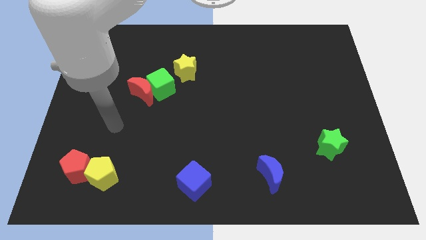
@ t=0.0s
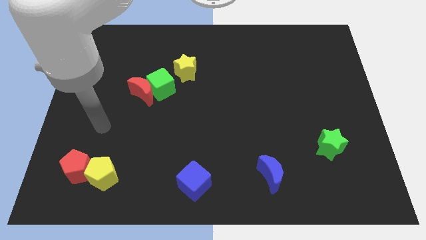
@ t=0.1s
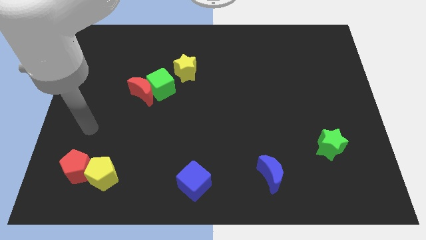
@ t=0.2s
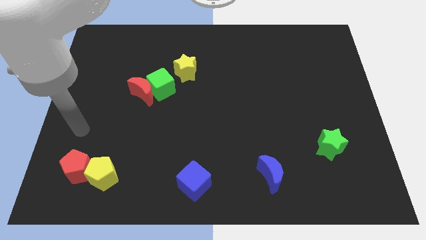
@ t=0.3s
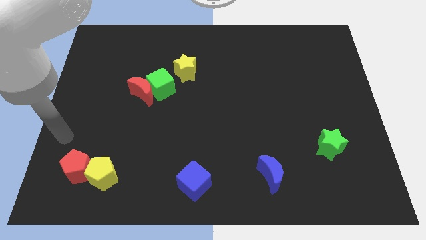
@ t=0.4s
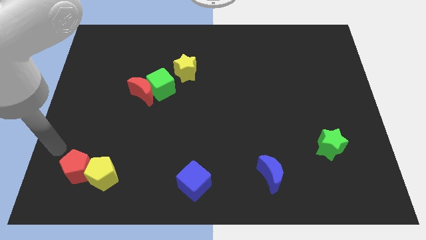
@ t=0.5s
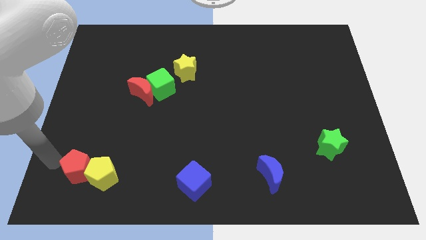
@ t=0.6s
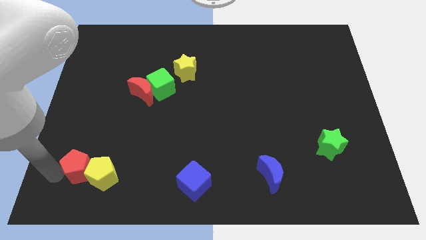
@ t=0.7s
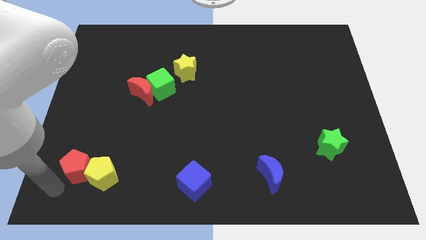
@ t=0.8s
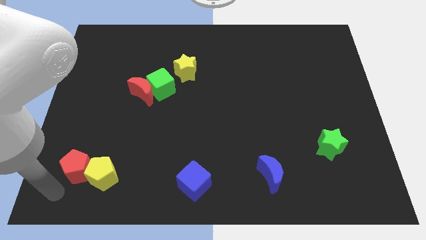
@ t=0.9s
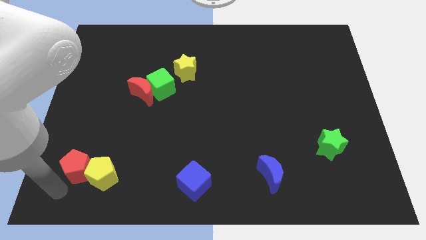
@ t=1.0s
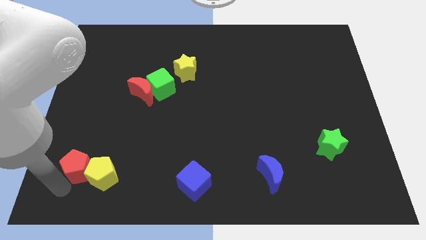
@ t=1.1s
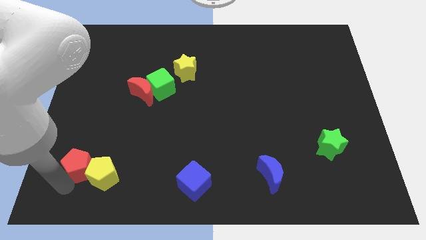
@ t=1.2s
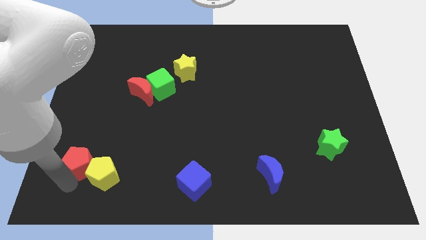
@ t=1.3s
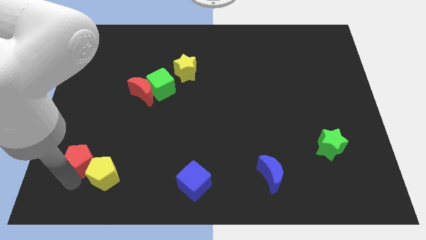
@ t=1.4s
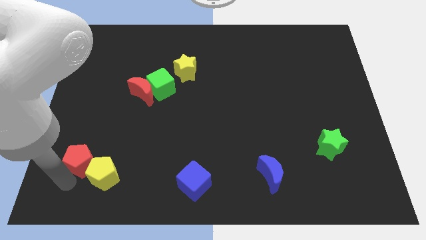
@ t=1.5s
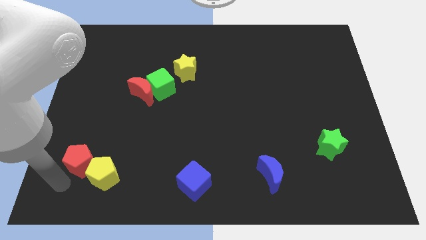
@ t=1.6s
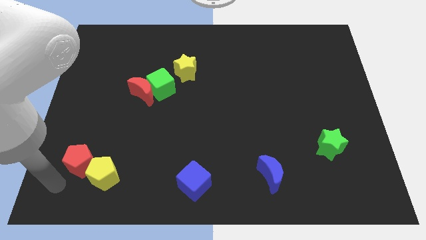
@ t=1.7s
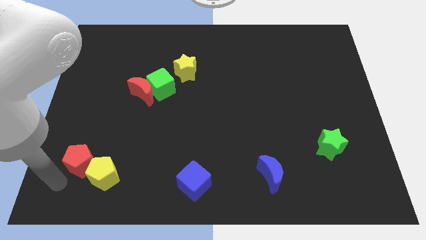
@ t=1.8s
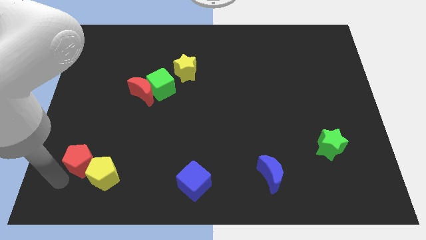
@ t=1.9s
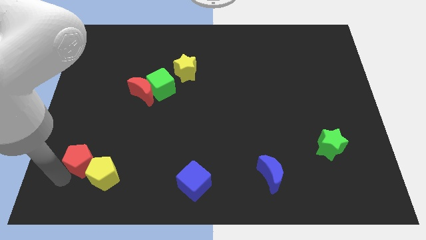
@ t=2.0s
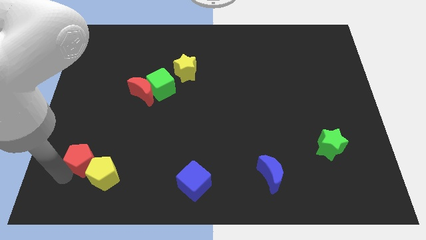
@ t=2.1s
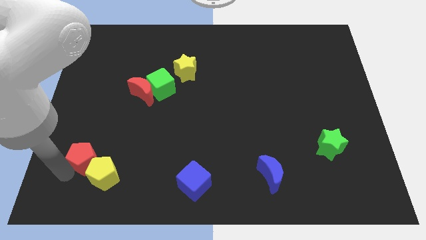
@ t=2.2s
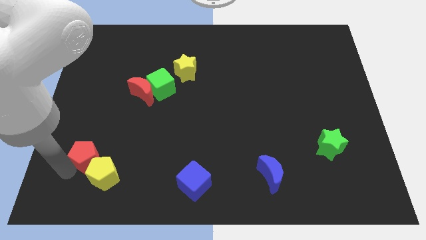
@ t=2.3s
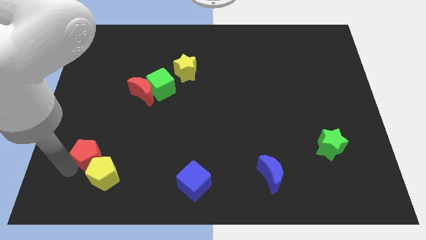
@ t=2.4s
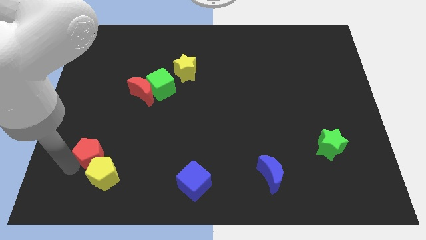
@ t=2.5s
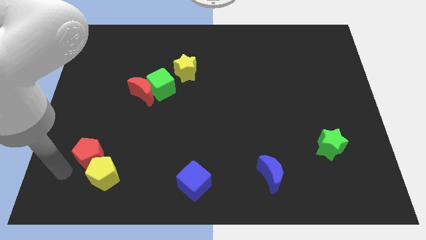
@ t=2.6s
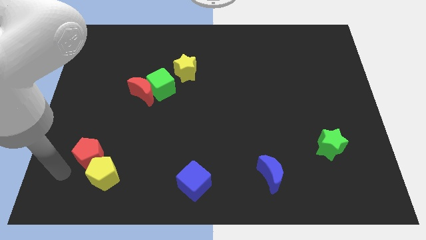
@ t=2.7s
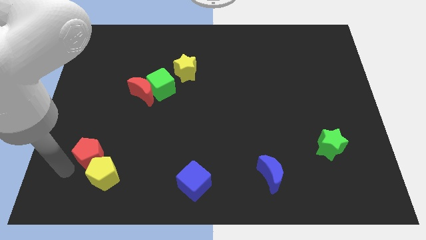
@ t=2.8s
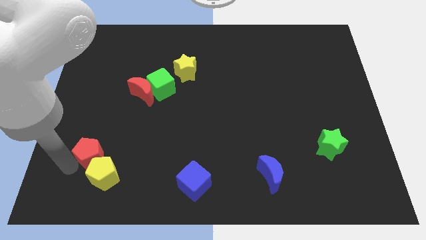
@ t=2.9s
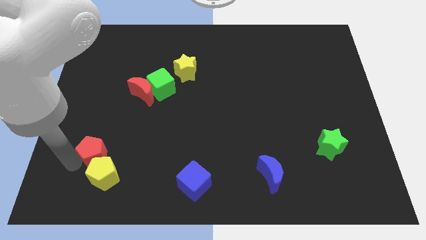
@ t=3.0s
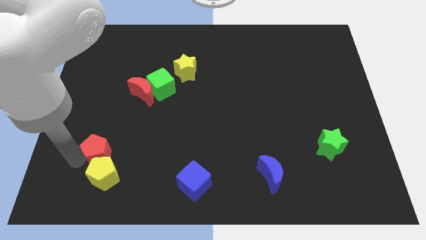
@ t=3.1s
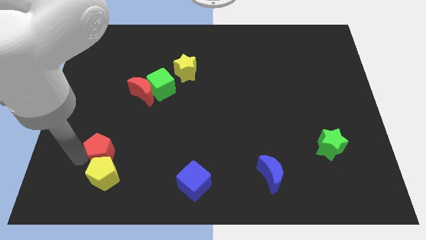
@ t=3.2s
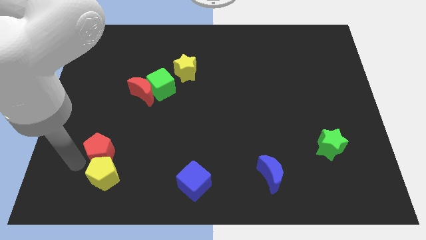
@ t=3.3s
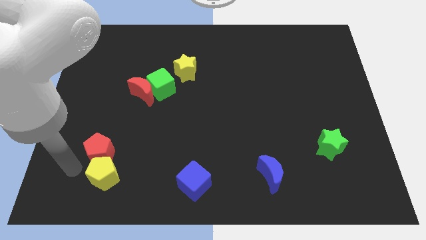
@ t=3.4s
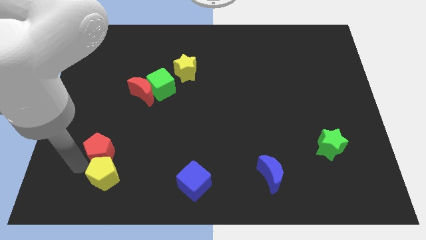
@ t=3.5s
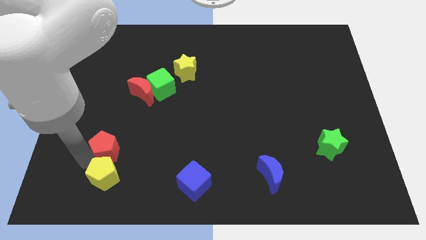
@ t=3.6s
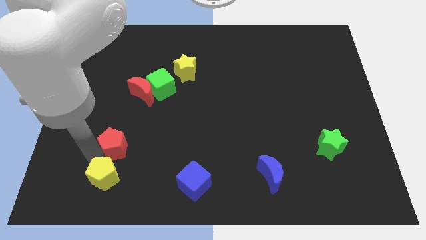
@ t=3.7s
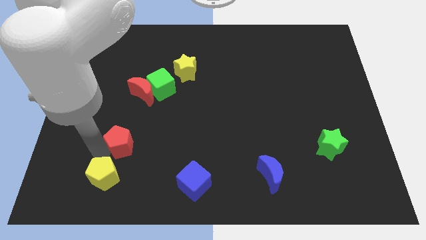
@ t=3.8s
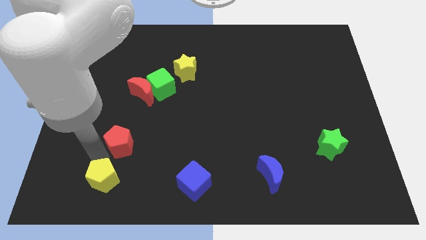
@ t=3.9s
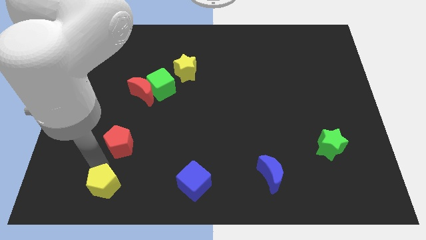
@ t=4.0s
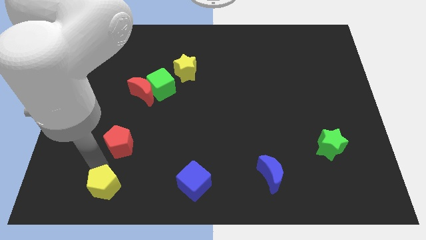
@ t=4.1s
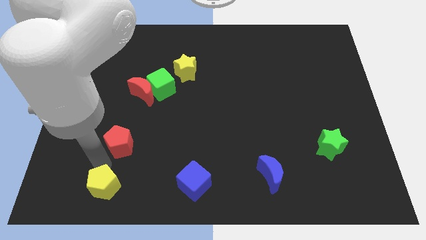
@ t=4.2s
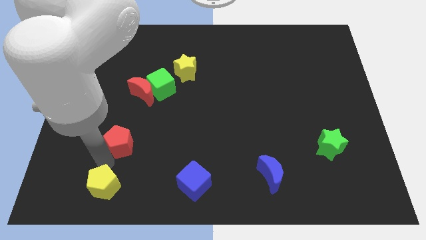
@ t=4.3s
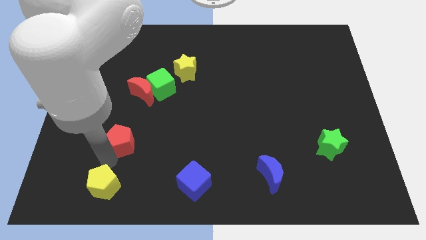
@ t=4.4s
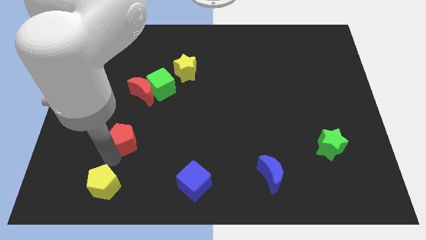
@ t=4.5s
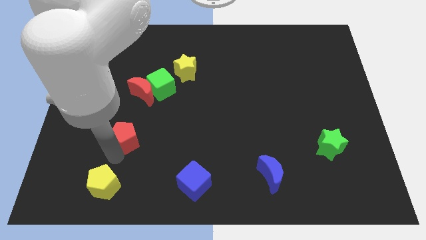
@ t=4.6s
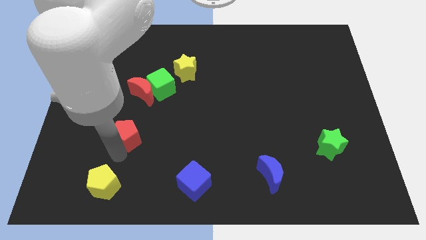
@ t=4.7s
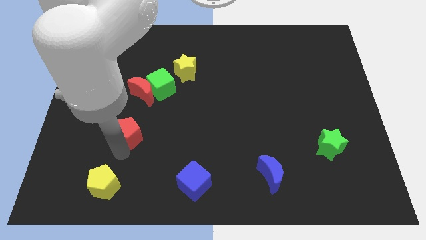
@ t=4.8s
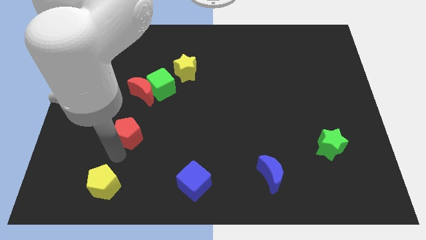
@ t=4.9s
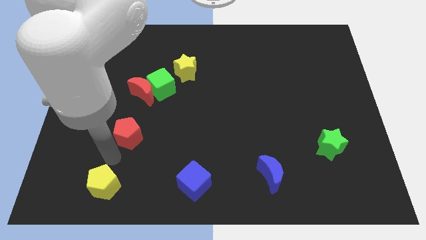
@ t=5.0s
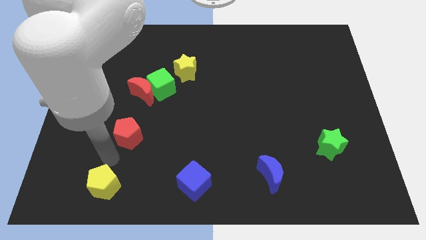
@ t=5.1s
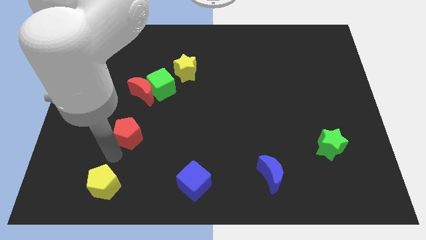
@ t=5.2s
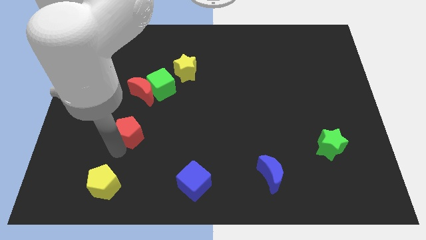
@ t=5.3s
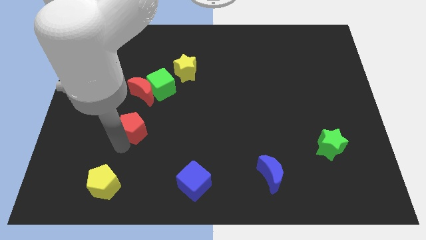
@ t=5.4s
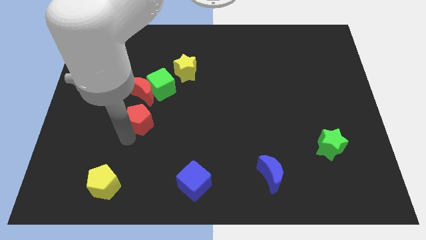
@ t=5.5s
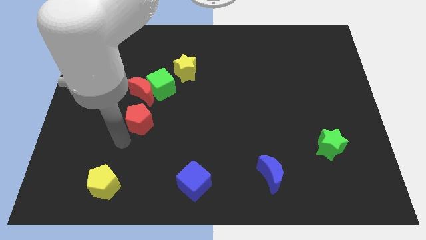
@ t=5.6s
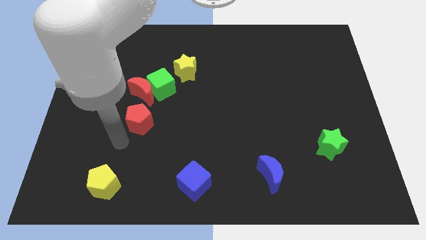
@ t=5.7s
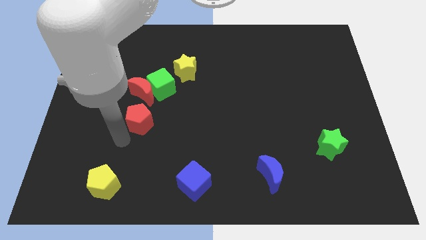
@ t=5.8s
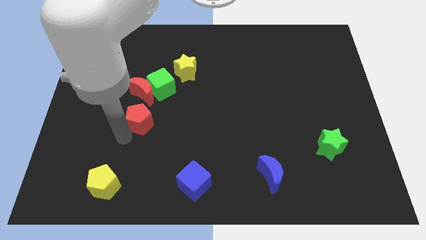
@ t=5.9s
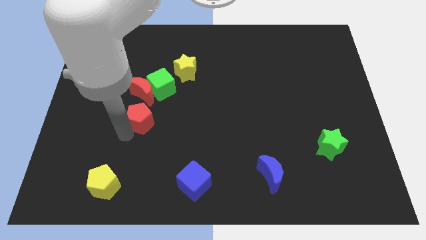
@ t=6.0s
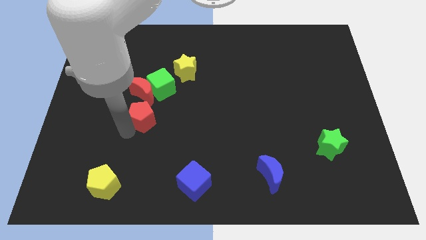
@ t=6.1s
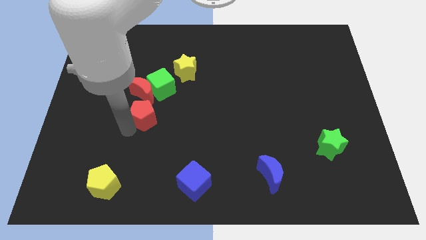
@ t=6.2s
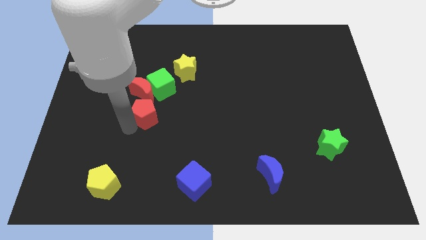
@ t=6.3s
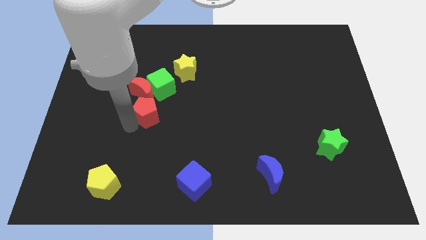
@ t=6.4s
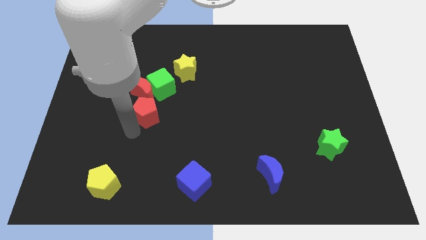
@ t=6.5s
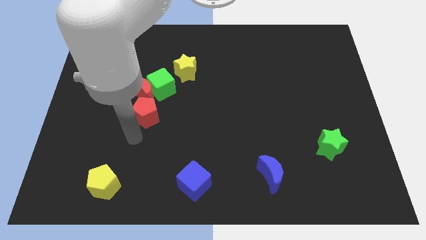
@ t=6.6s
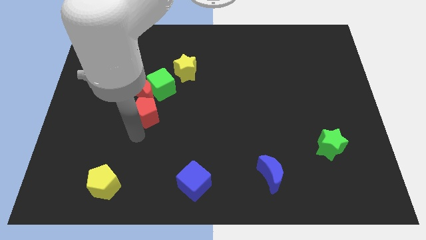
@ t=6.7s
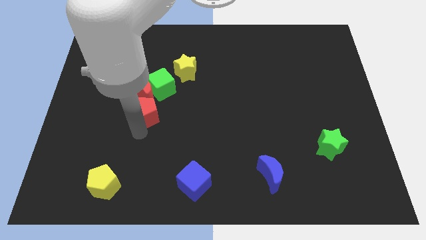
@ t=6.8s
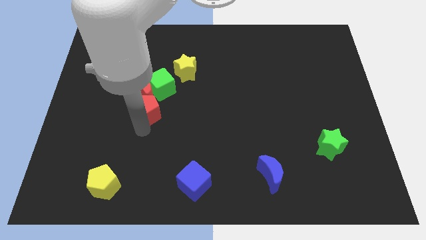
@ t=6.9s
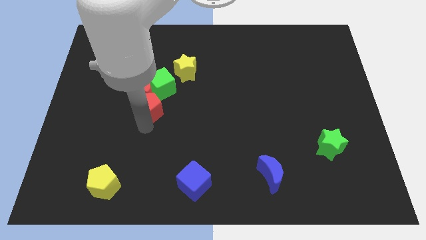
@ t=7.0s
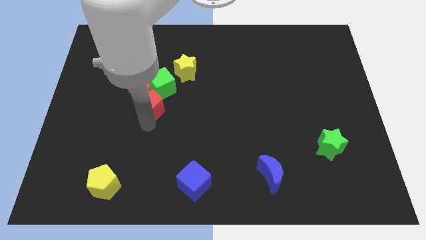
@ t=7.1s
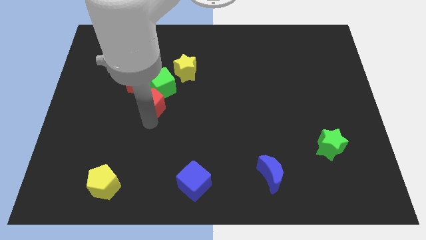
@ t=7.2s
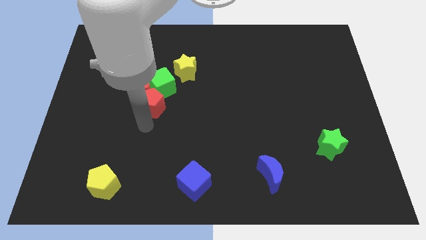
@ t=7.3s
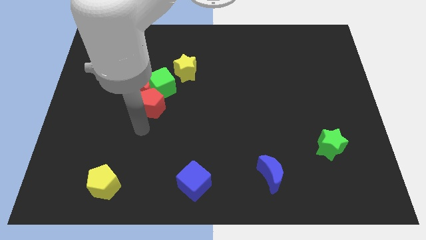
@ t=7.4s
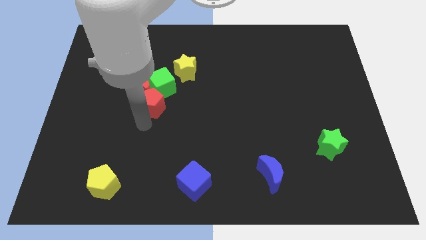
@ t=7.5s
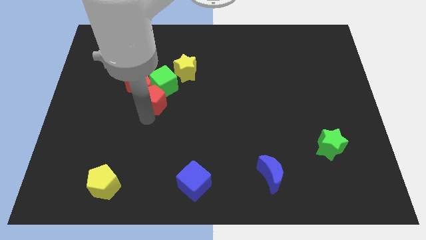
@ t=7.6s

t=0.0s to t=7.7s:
push the red pentagon next to the green cube

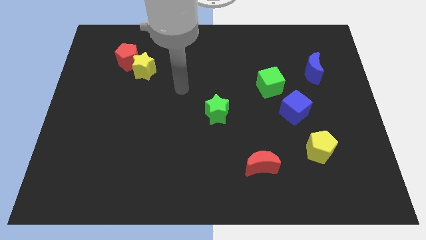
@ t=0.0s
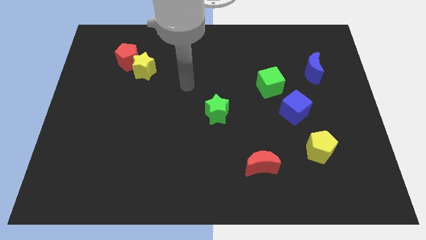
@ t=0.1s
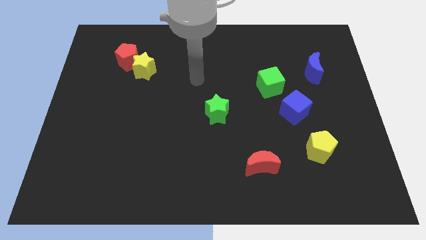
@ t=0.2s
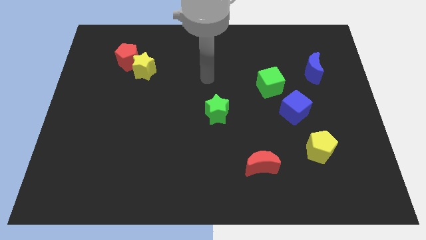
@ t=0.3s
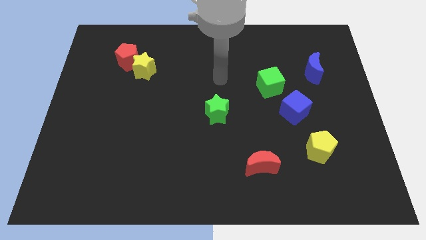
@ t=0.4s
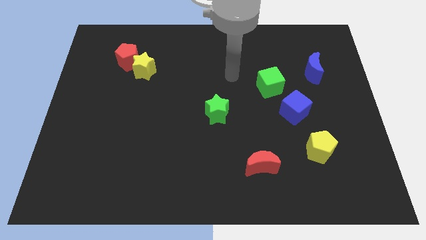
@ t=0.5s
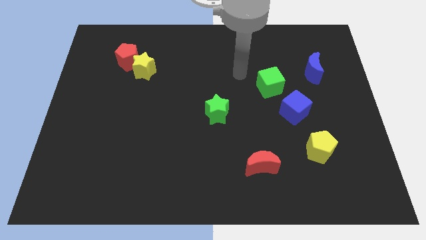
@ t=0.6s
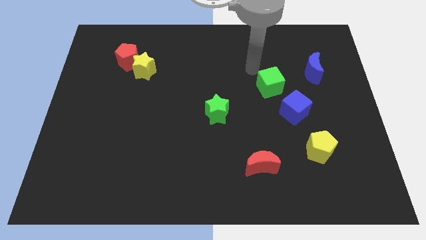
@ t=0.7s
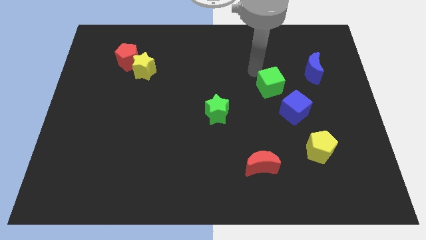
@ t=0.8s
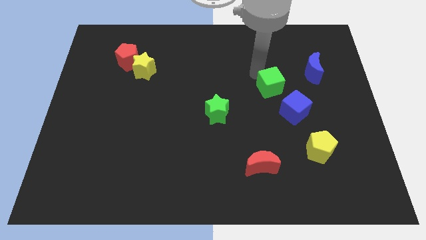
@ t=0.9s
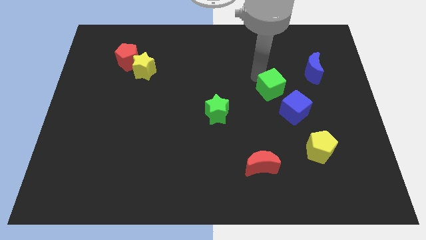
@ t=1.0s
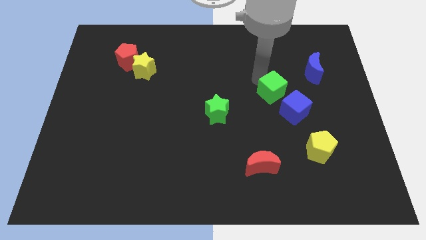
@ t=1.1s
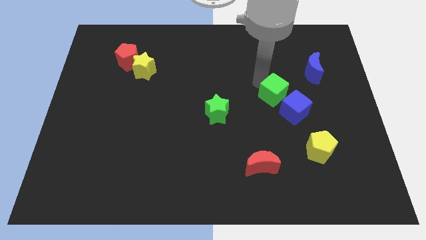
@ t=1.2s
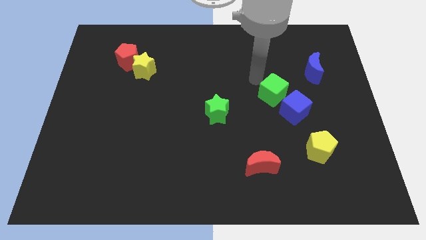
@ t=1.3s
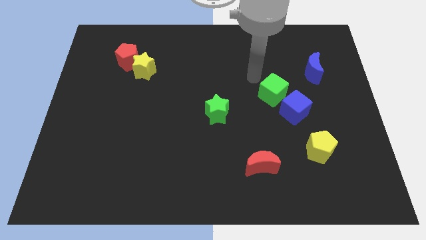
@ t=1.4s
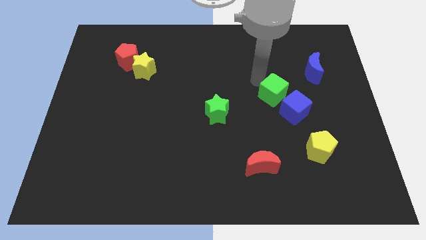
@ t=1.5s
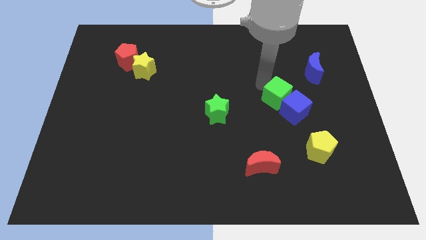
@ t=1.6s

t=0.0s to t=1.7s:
slide the green cube towards the blue cube
